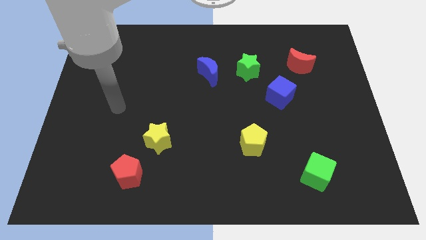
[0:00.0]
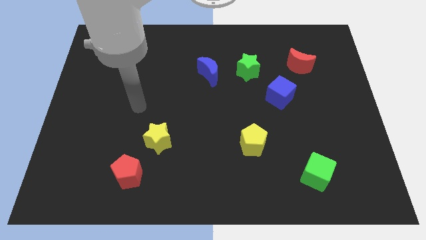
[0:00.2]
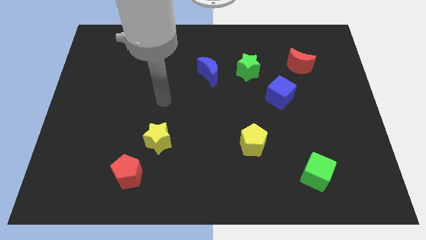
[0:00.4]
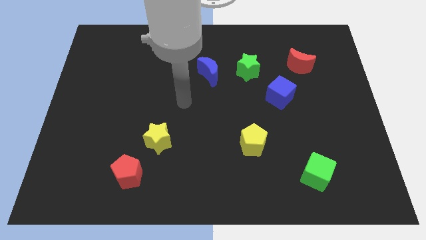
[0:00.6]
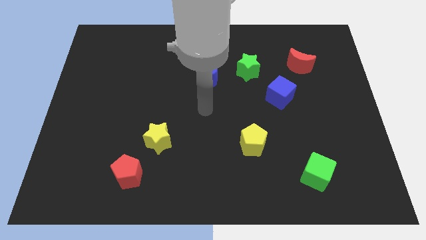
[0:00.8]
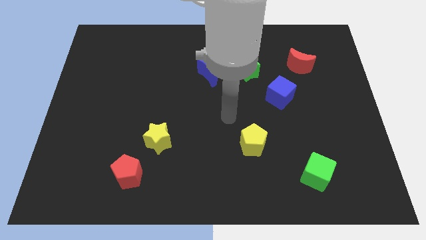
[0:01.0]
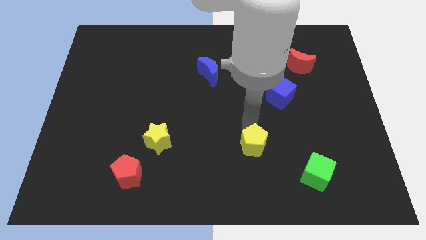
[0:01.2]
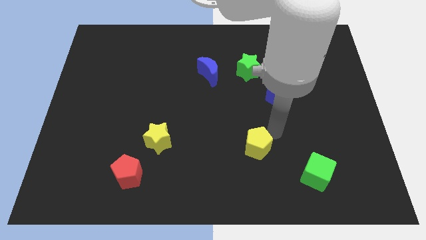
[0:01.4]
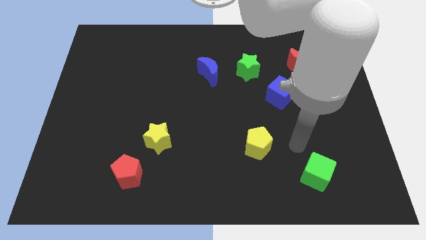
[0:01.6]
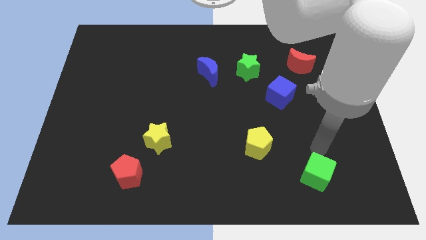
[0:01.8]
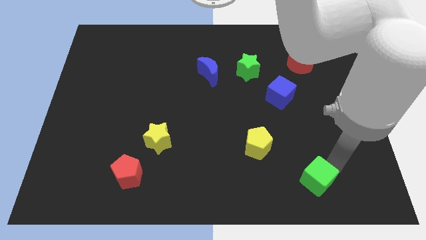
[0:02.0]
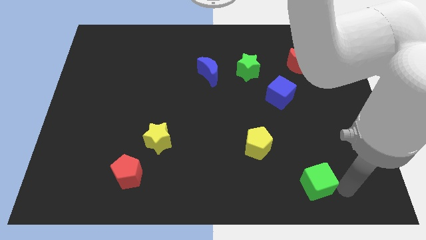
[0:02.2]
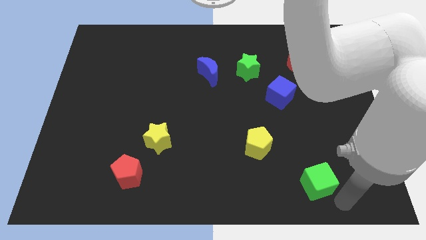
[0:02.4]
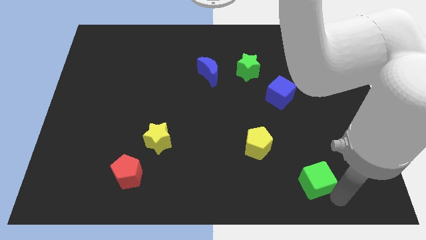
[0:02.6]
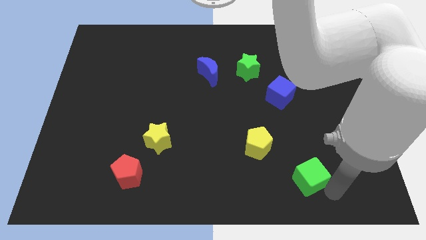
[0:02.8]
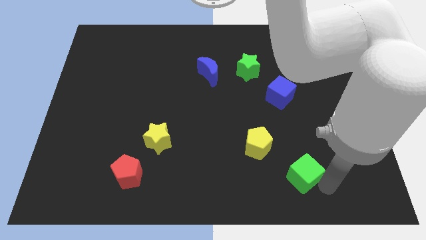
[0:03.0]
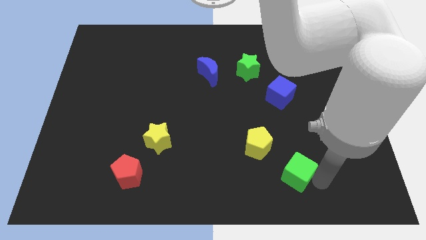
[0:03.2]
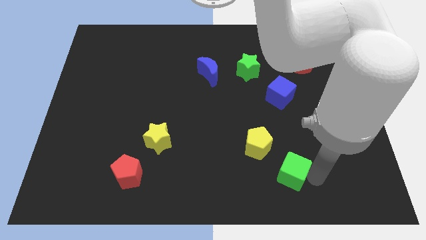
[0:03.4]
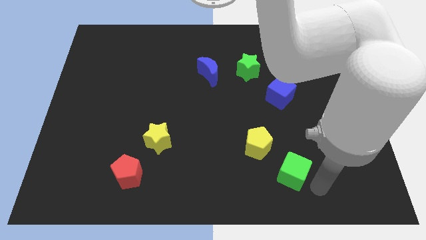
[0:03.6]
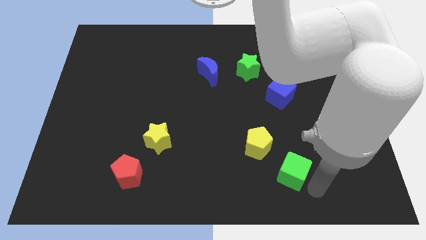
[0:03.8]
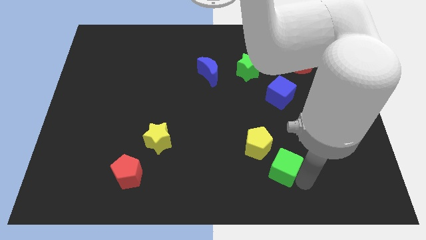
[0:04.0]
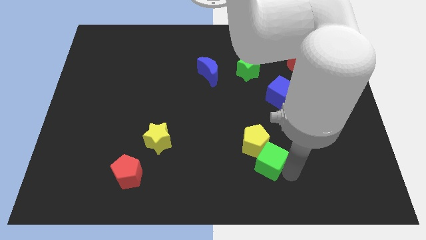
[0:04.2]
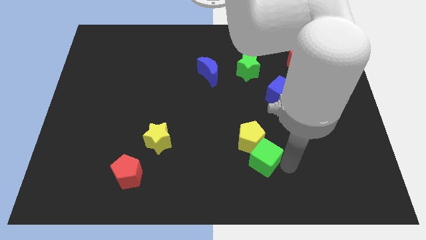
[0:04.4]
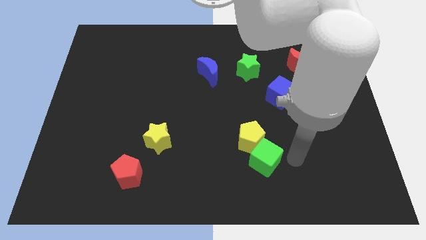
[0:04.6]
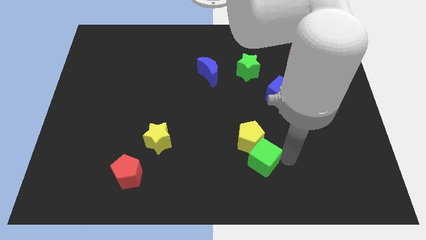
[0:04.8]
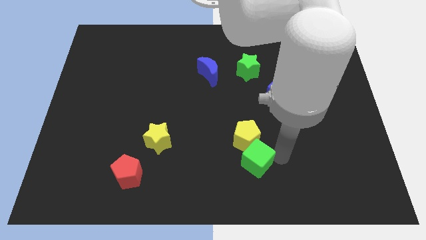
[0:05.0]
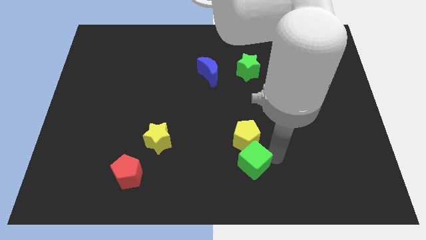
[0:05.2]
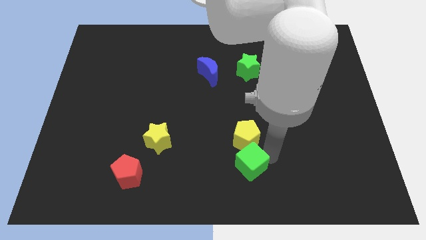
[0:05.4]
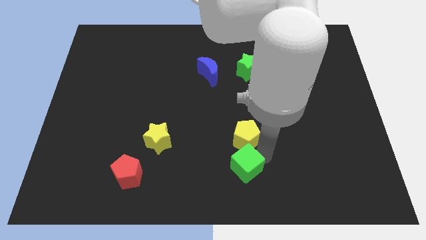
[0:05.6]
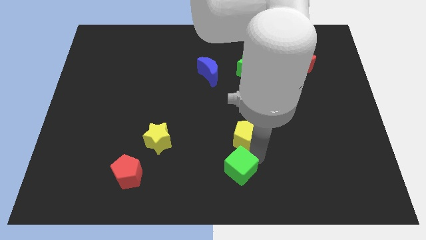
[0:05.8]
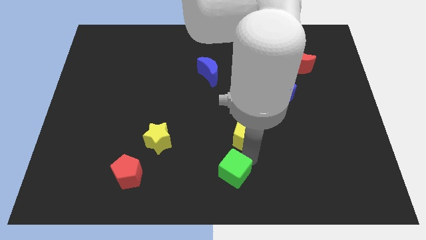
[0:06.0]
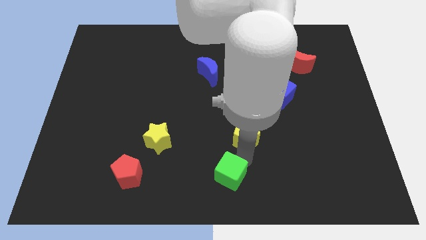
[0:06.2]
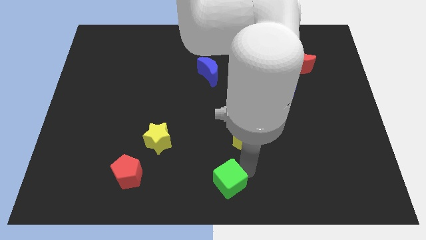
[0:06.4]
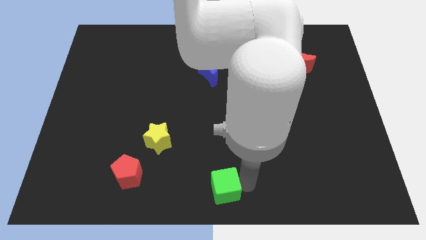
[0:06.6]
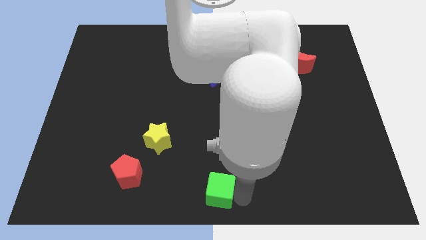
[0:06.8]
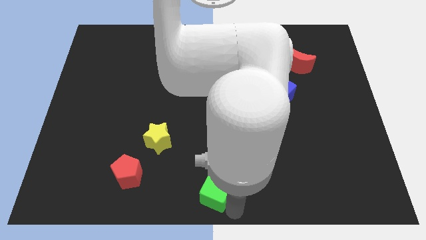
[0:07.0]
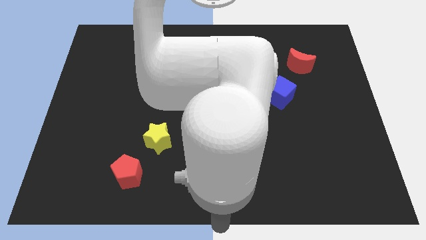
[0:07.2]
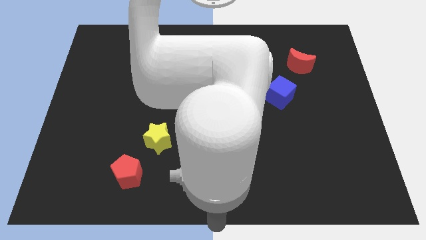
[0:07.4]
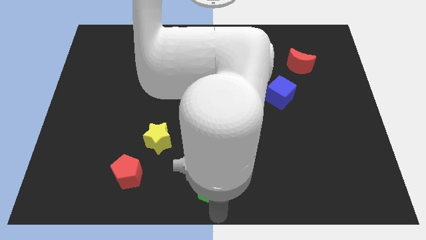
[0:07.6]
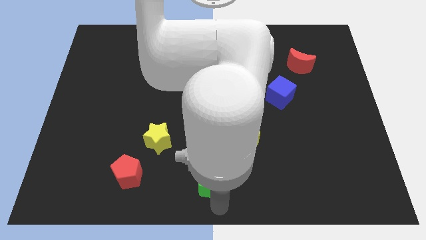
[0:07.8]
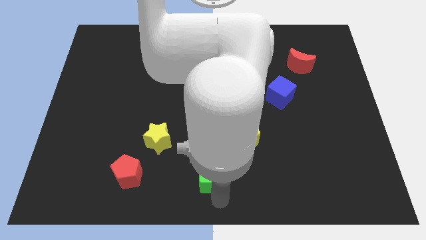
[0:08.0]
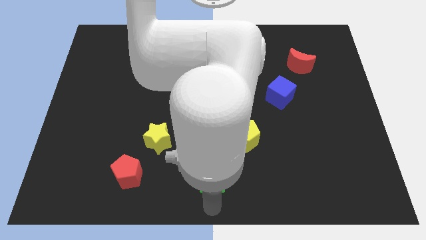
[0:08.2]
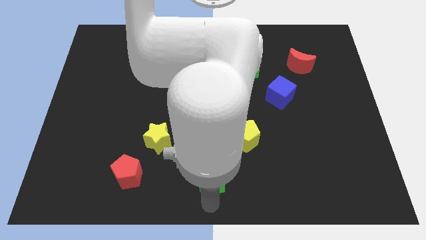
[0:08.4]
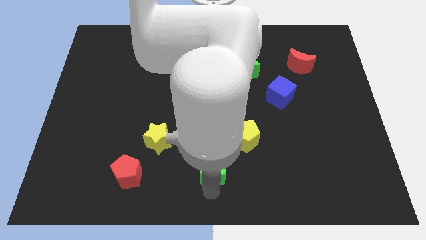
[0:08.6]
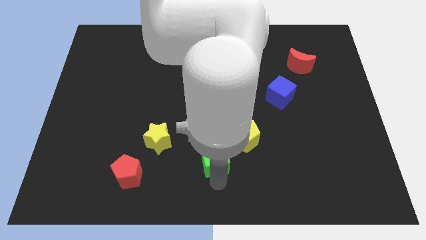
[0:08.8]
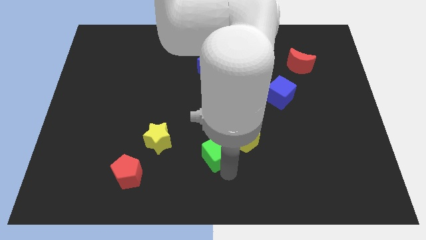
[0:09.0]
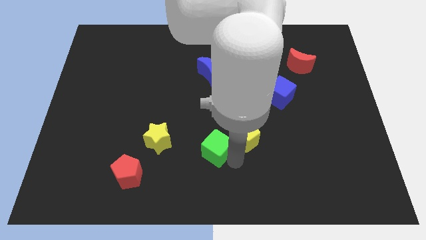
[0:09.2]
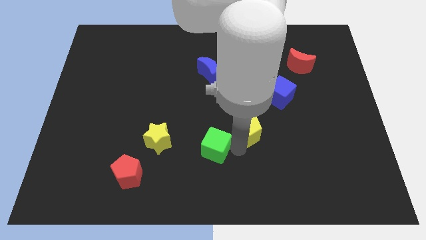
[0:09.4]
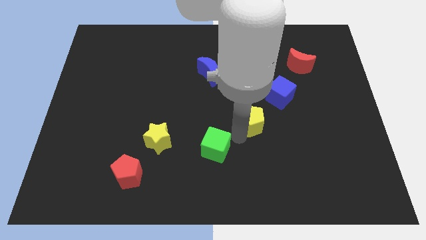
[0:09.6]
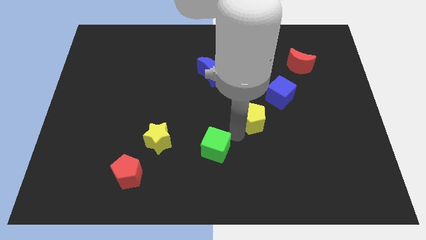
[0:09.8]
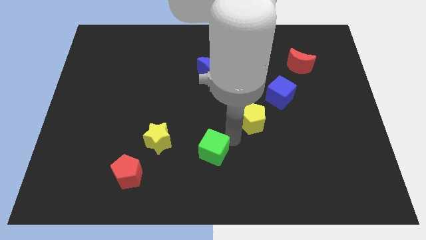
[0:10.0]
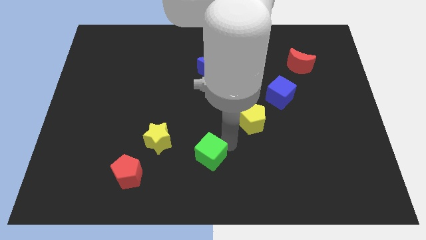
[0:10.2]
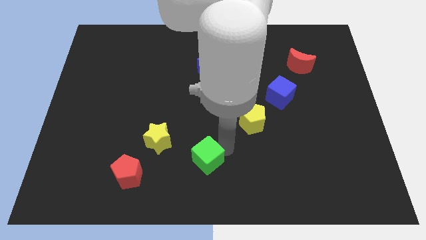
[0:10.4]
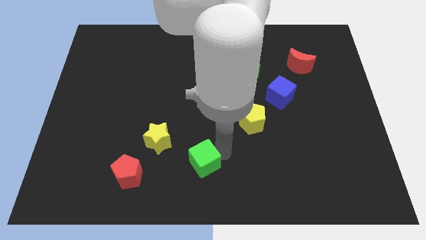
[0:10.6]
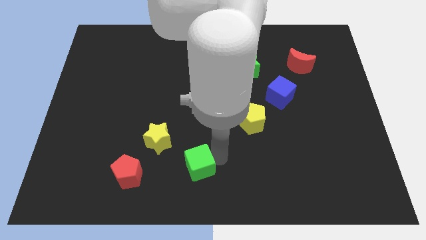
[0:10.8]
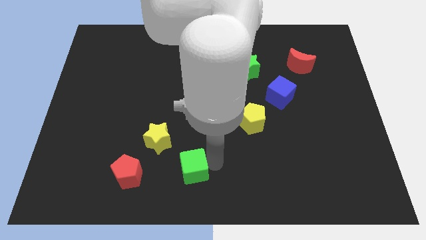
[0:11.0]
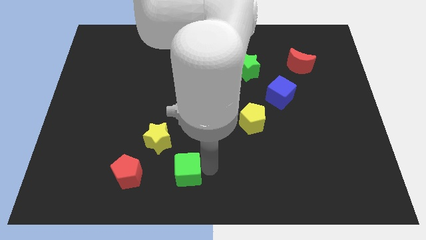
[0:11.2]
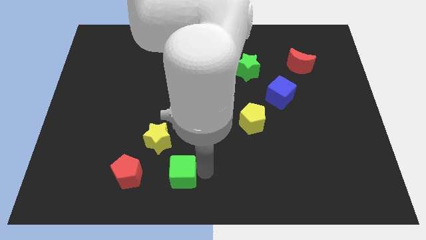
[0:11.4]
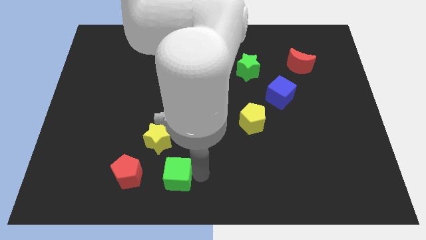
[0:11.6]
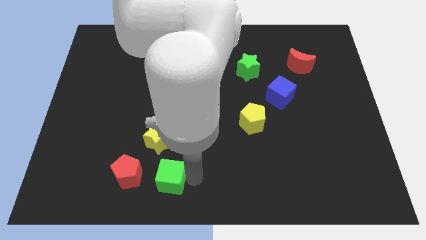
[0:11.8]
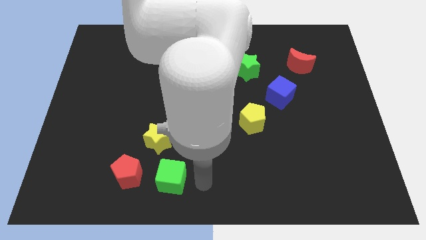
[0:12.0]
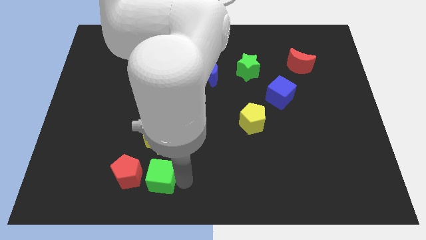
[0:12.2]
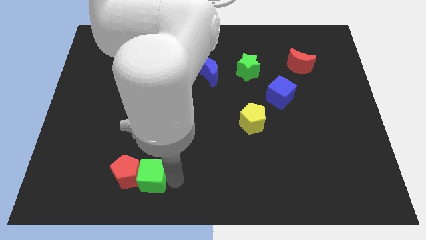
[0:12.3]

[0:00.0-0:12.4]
slide the green cube close to the red pentagon

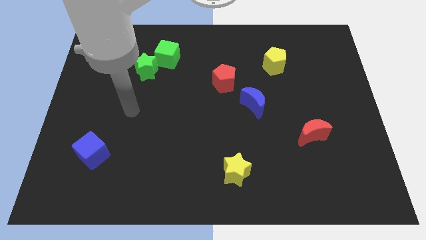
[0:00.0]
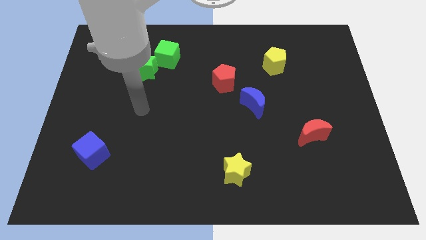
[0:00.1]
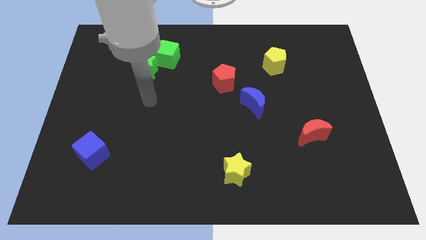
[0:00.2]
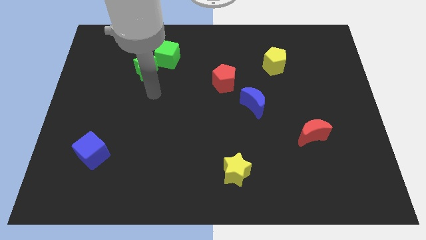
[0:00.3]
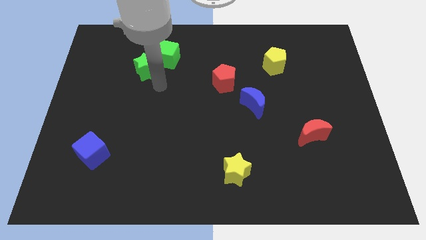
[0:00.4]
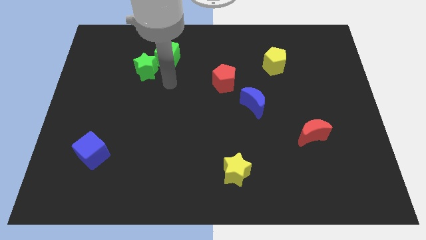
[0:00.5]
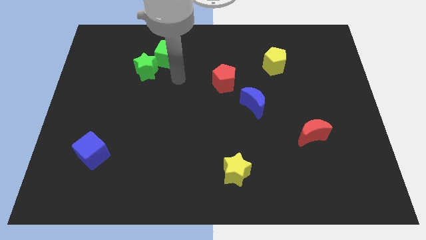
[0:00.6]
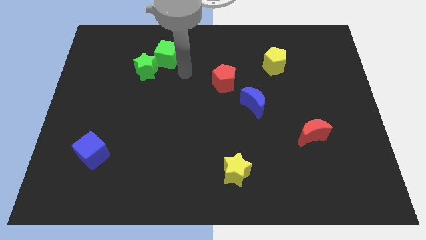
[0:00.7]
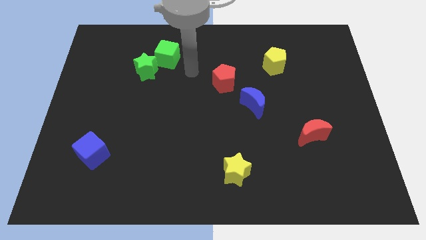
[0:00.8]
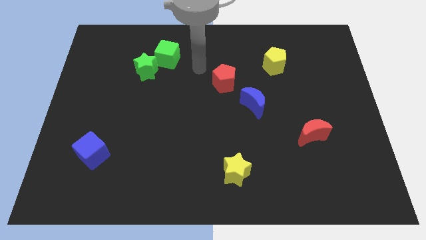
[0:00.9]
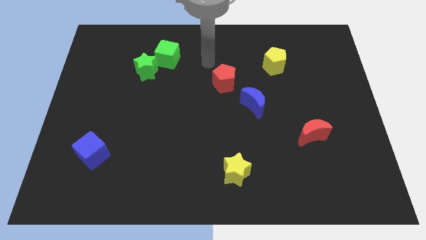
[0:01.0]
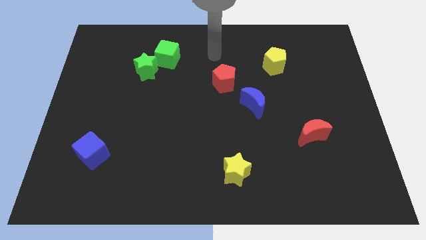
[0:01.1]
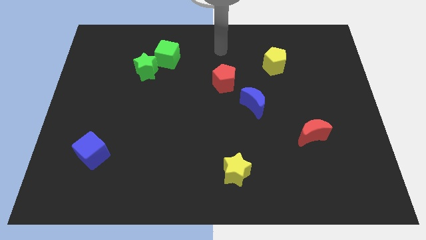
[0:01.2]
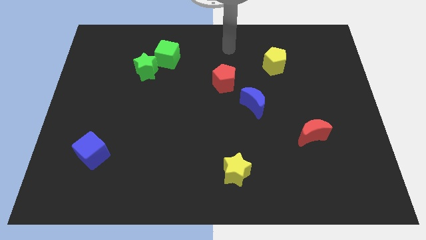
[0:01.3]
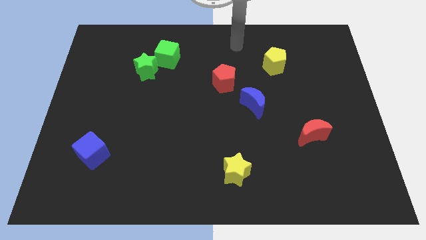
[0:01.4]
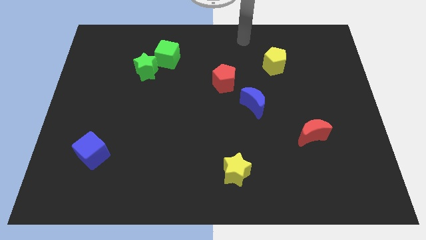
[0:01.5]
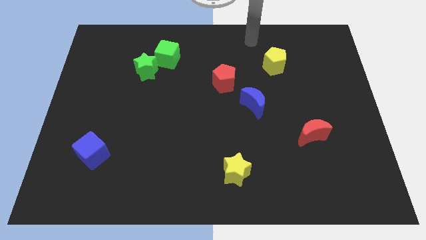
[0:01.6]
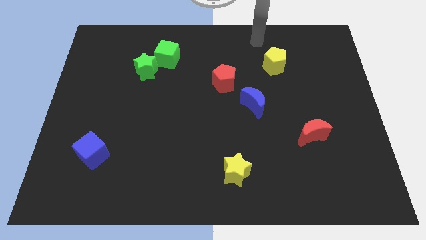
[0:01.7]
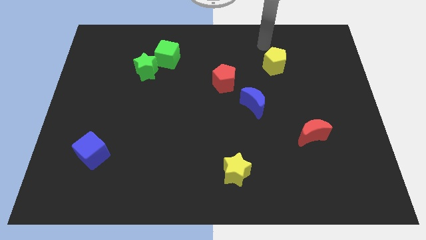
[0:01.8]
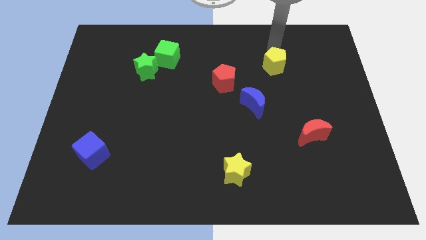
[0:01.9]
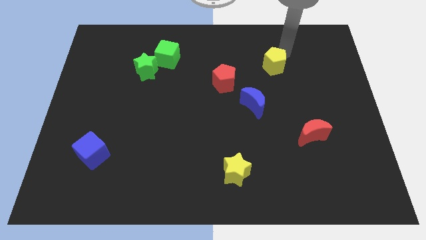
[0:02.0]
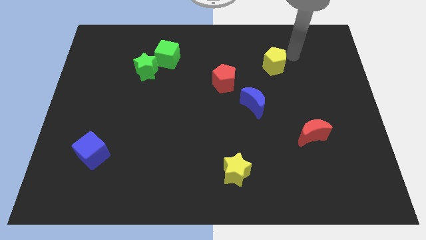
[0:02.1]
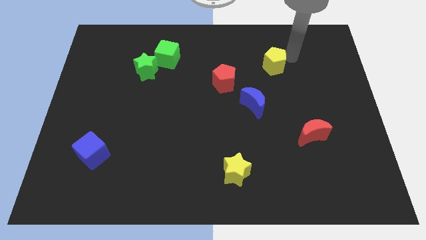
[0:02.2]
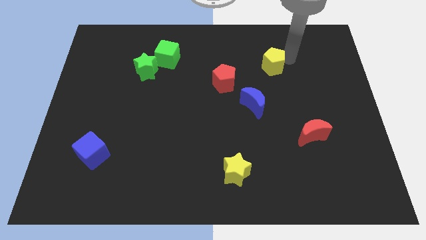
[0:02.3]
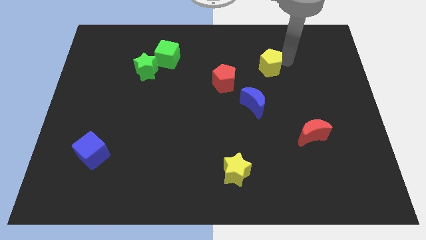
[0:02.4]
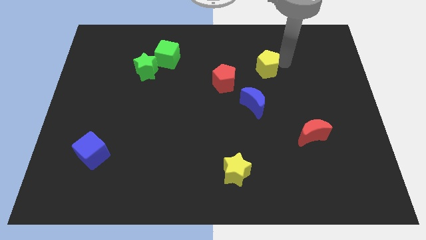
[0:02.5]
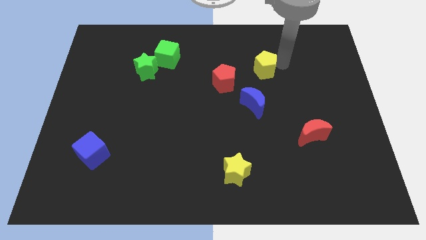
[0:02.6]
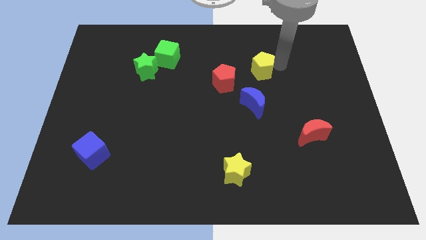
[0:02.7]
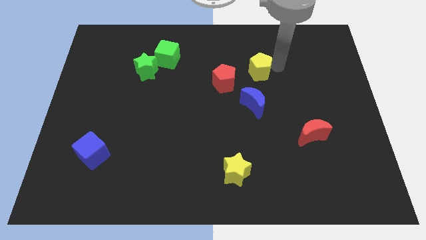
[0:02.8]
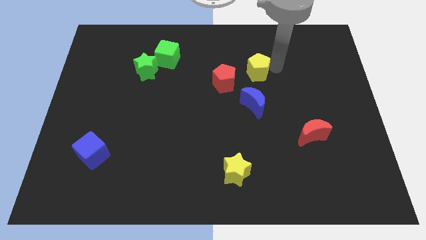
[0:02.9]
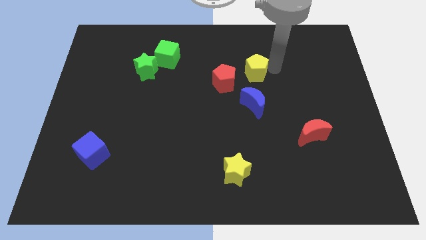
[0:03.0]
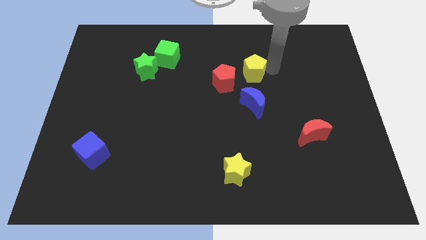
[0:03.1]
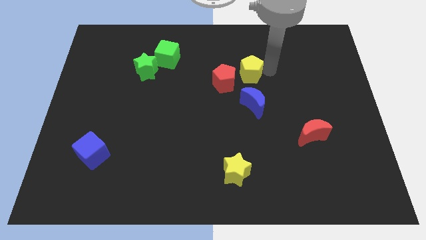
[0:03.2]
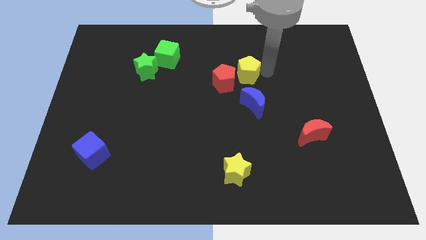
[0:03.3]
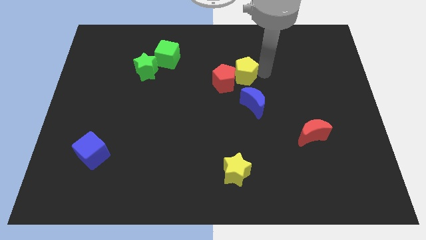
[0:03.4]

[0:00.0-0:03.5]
put the yellow pentagon next to the red pentagon
